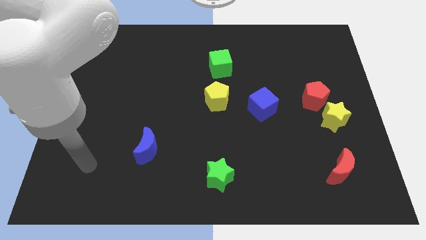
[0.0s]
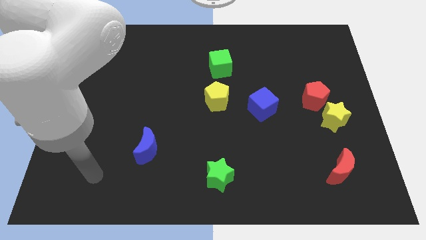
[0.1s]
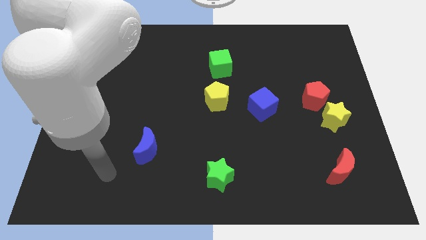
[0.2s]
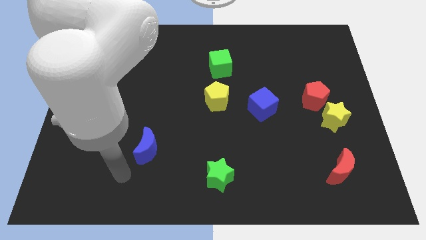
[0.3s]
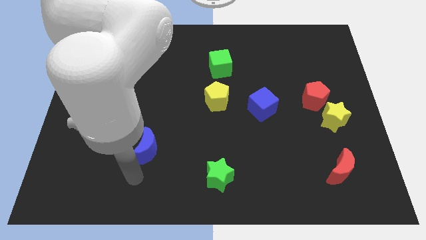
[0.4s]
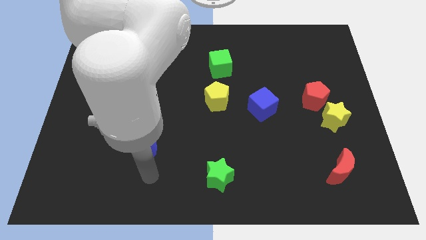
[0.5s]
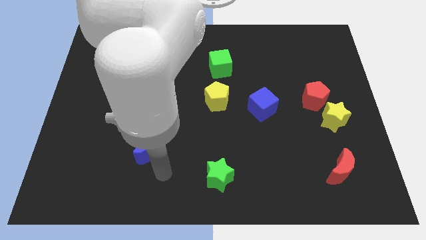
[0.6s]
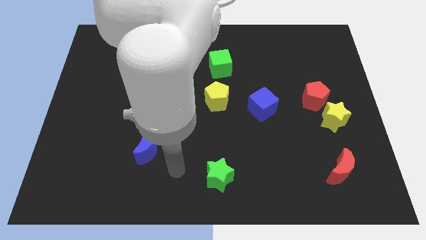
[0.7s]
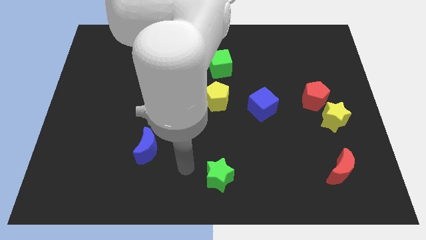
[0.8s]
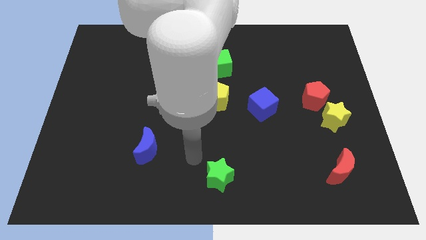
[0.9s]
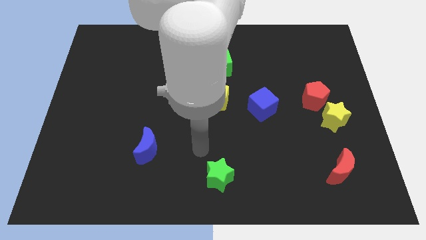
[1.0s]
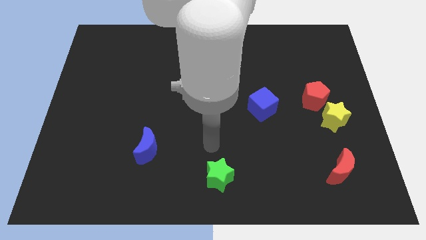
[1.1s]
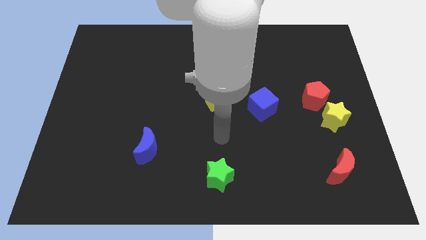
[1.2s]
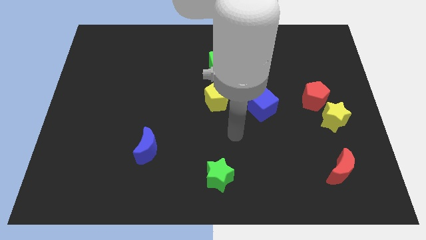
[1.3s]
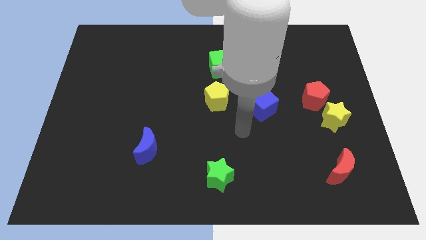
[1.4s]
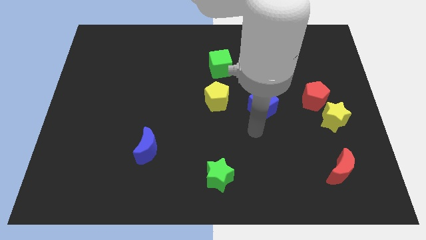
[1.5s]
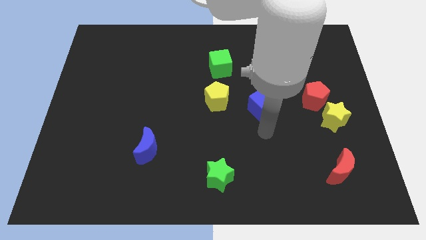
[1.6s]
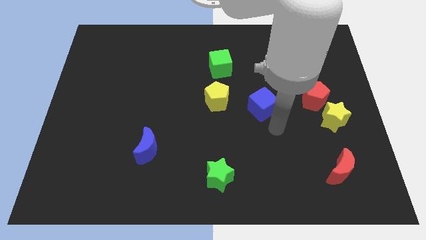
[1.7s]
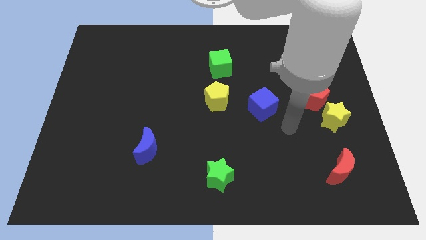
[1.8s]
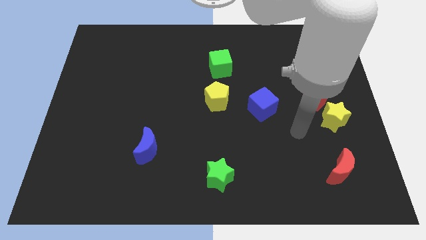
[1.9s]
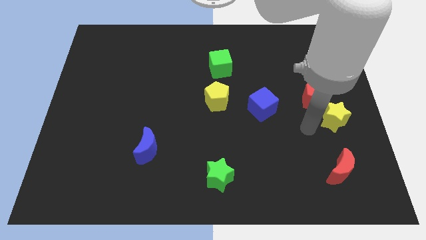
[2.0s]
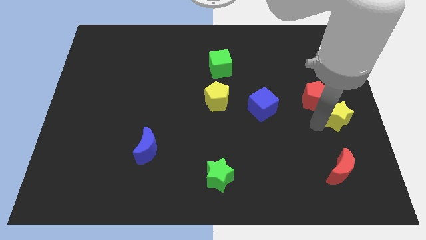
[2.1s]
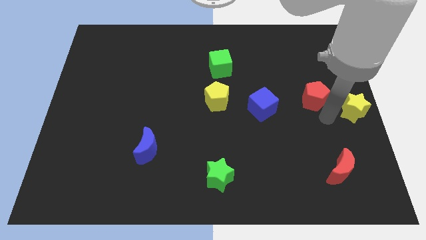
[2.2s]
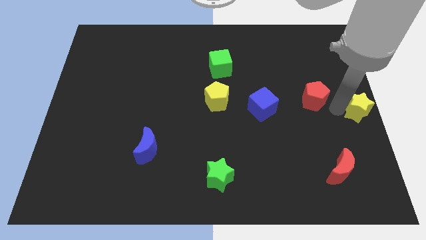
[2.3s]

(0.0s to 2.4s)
pull the red pentagon apart from the yellow star

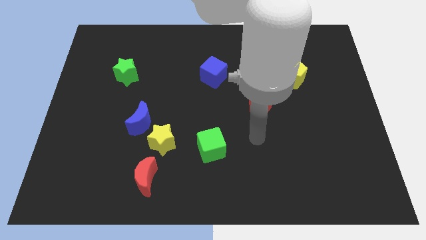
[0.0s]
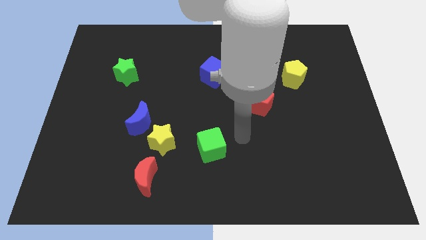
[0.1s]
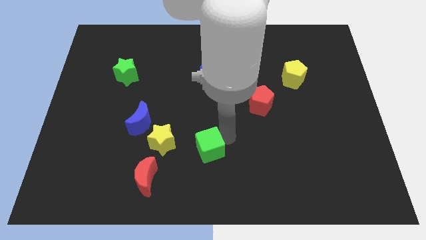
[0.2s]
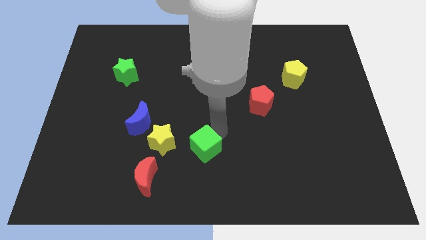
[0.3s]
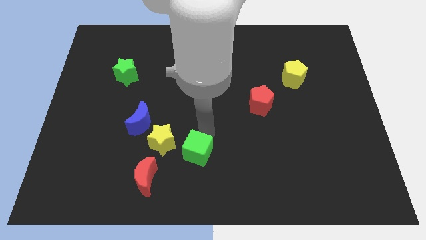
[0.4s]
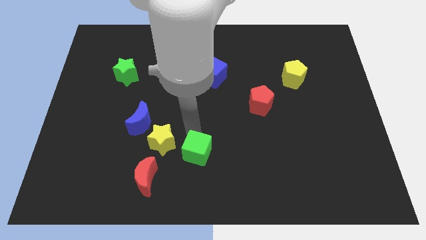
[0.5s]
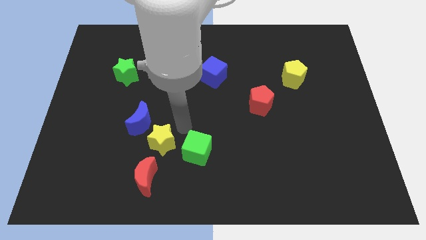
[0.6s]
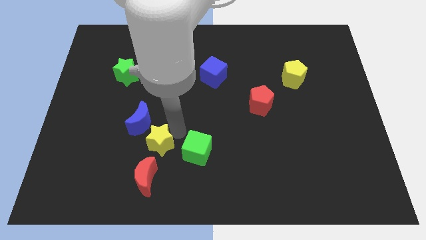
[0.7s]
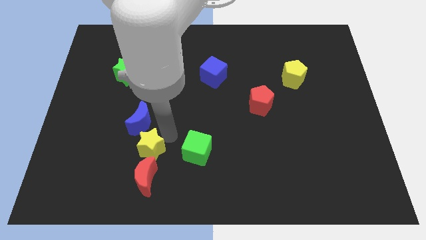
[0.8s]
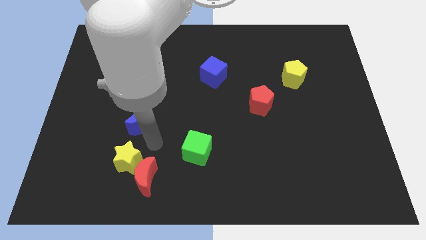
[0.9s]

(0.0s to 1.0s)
separate the blue moon from the yellow star

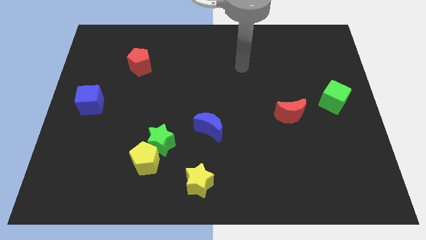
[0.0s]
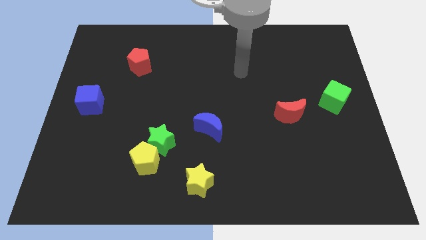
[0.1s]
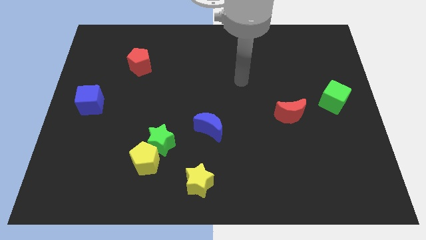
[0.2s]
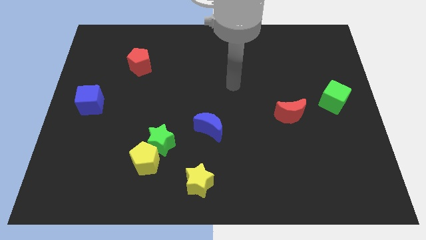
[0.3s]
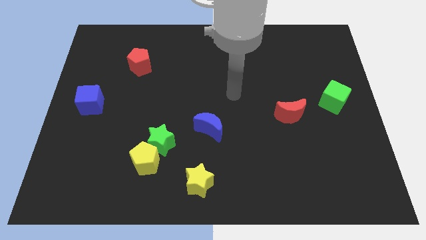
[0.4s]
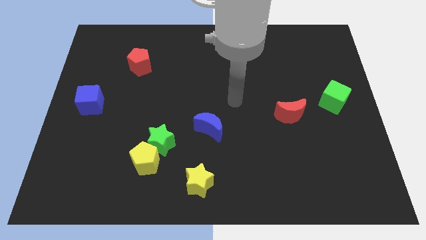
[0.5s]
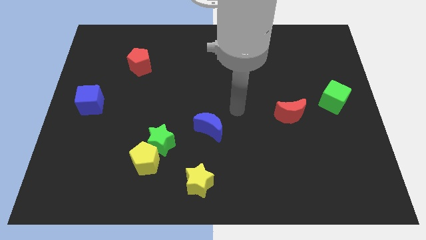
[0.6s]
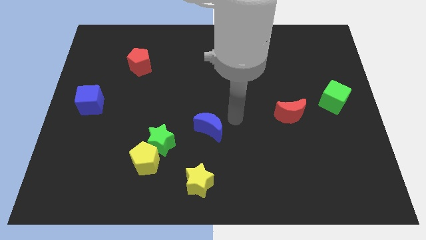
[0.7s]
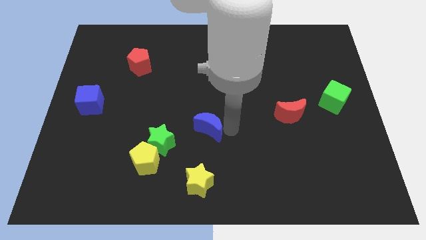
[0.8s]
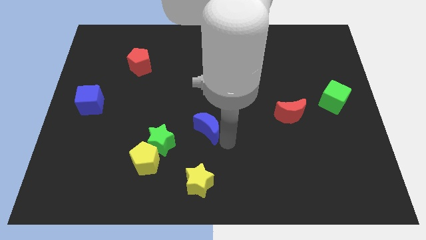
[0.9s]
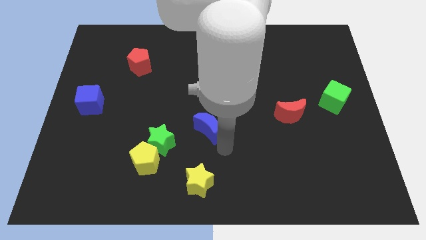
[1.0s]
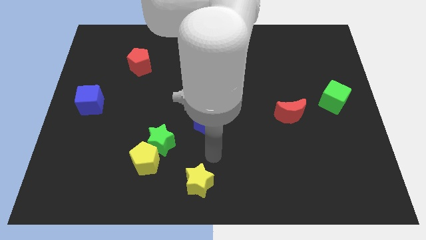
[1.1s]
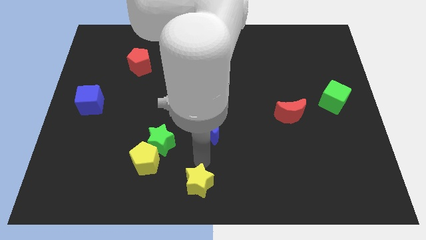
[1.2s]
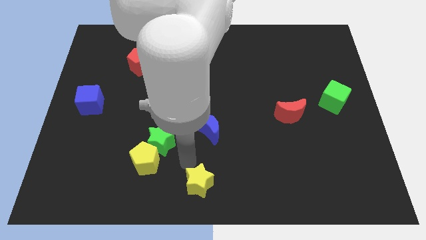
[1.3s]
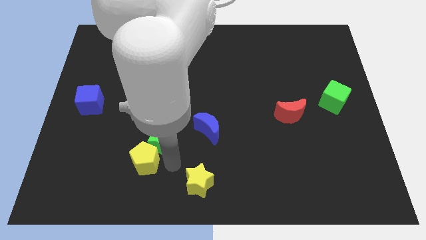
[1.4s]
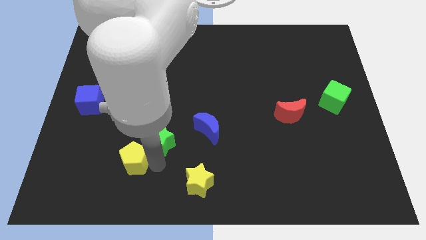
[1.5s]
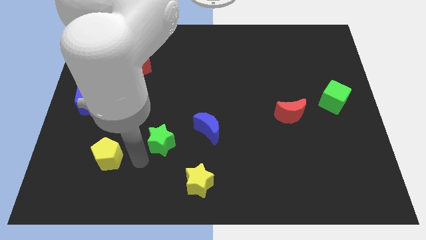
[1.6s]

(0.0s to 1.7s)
separate the green star from the yellow pentagon

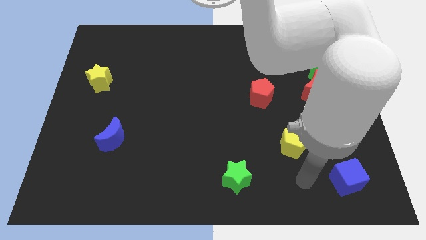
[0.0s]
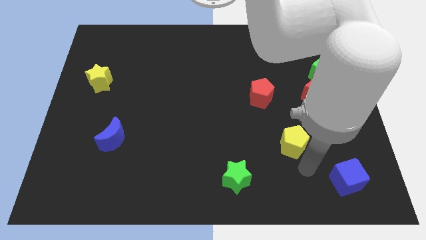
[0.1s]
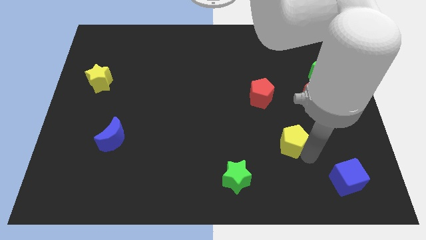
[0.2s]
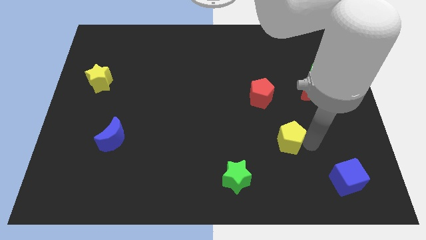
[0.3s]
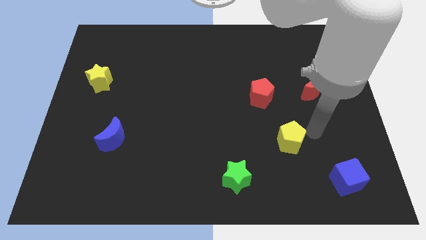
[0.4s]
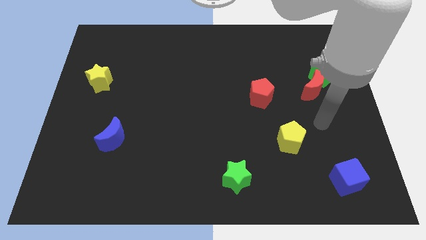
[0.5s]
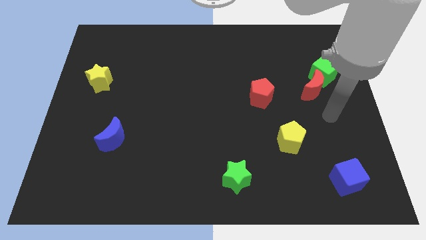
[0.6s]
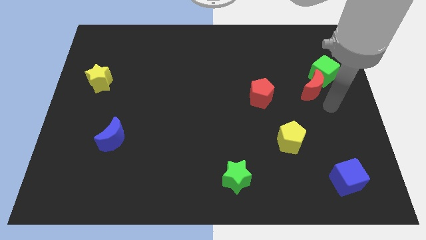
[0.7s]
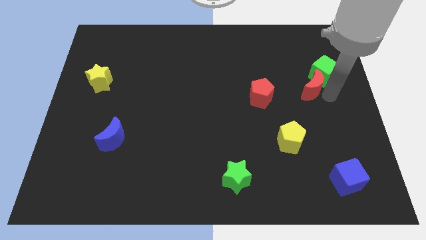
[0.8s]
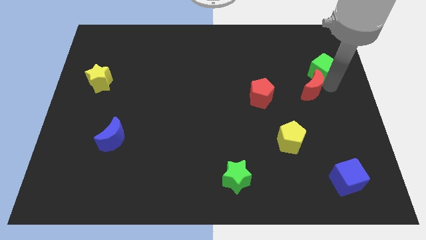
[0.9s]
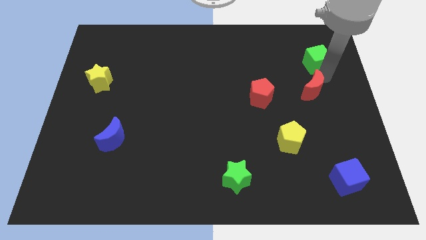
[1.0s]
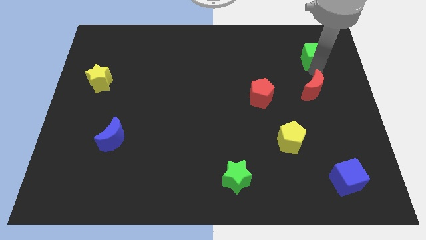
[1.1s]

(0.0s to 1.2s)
separate the red moon from the green cube

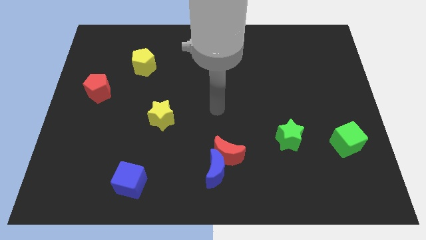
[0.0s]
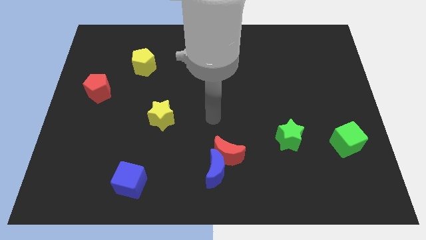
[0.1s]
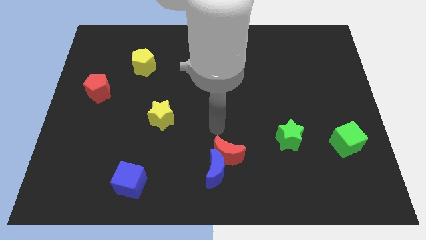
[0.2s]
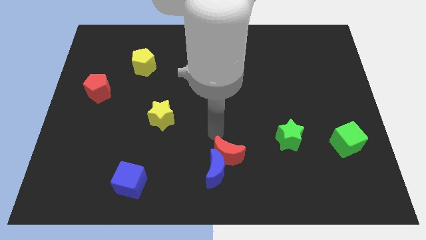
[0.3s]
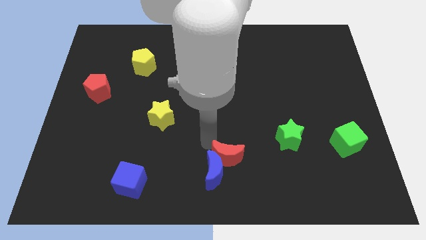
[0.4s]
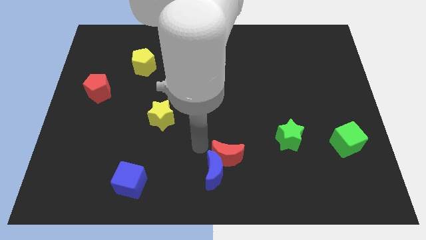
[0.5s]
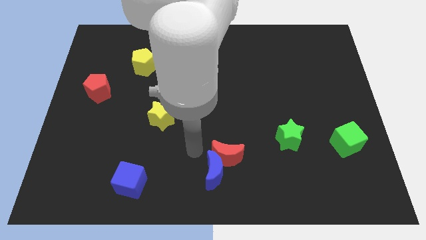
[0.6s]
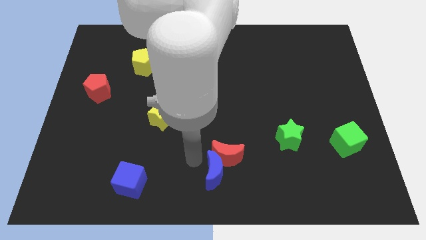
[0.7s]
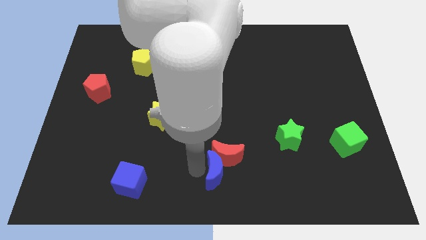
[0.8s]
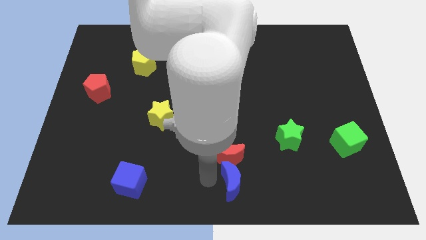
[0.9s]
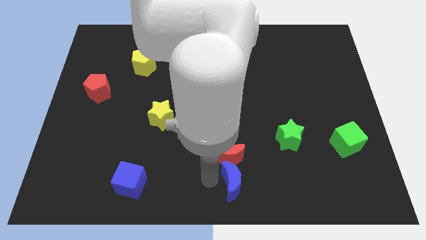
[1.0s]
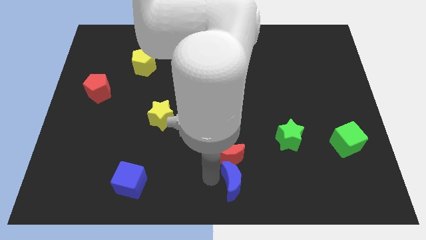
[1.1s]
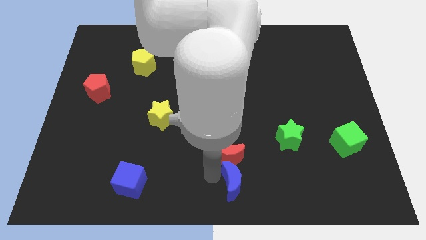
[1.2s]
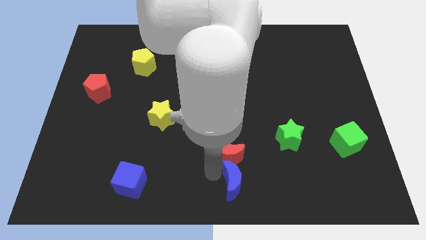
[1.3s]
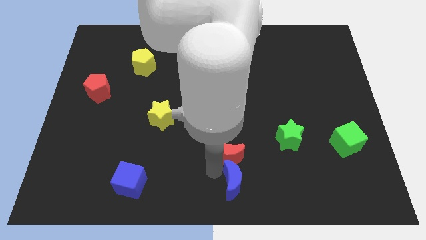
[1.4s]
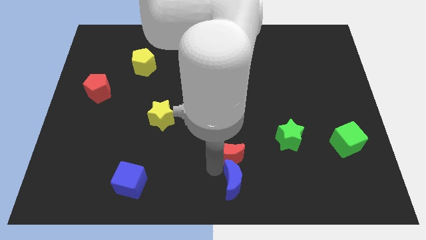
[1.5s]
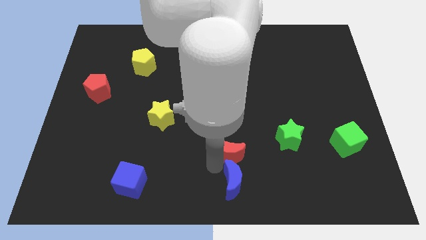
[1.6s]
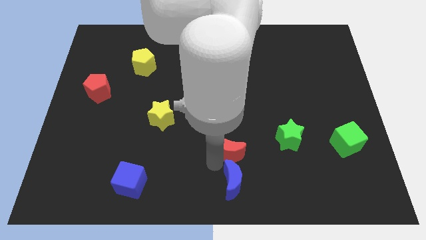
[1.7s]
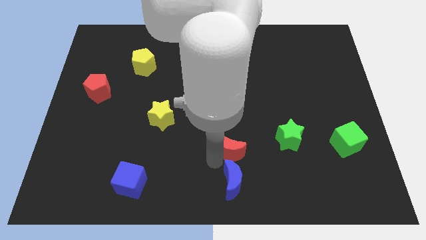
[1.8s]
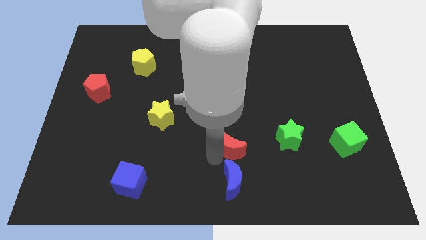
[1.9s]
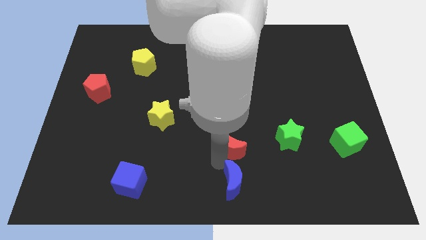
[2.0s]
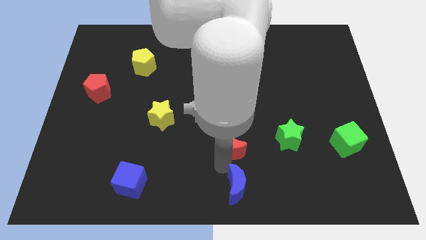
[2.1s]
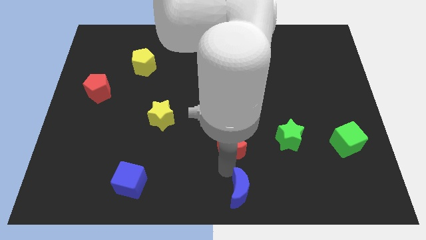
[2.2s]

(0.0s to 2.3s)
separate the red moon from the blue moon

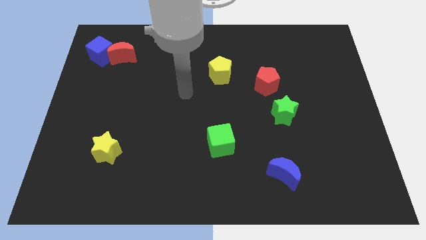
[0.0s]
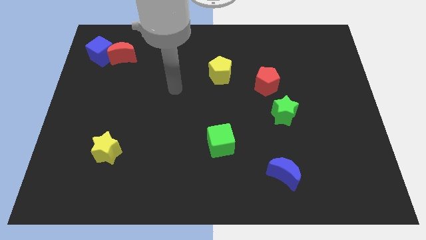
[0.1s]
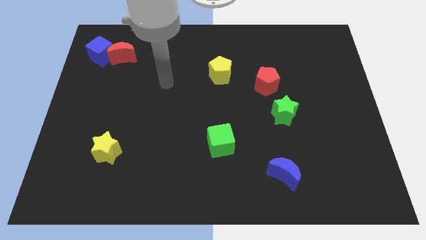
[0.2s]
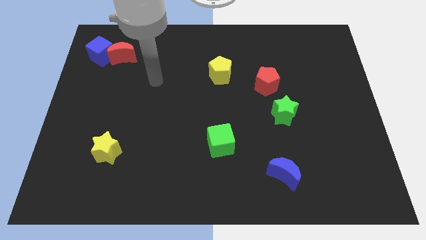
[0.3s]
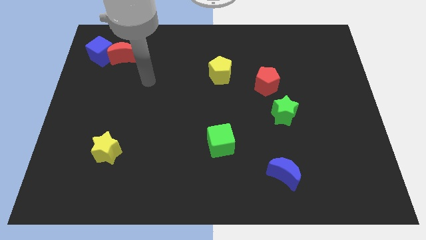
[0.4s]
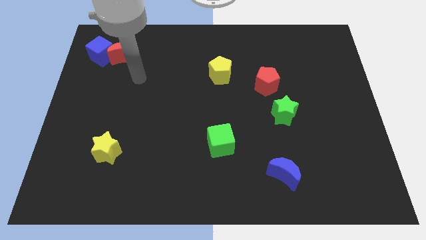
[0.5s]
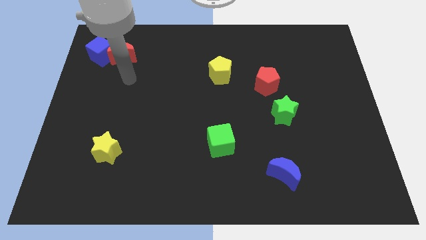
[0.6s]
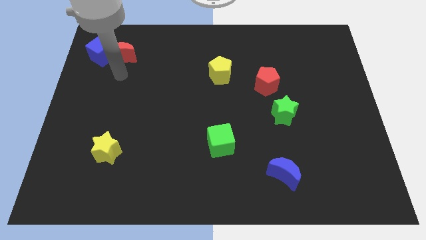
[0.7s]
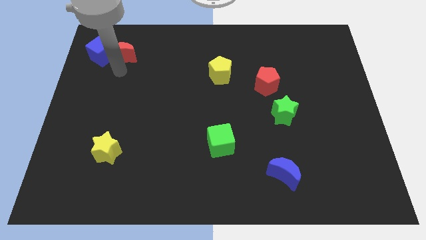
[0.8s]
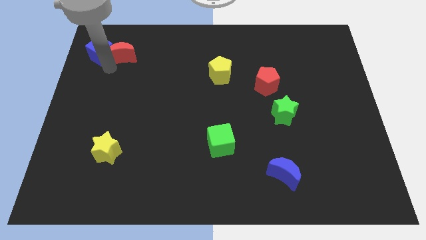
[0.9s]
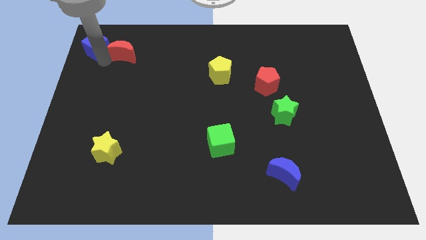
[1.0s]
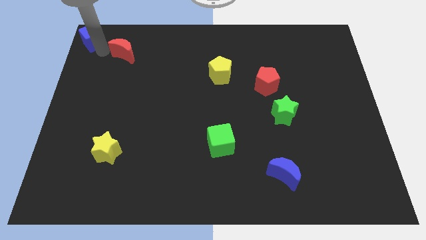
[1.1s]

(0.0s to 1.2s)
move the red moon away from the blue cube
